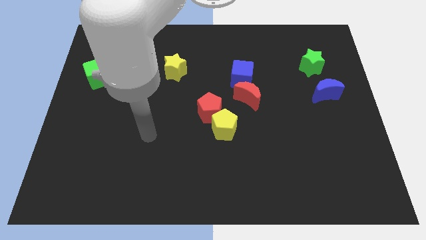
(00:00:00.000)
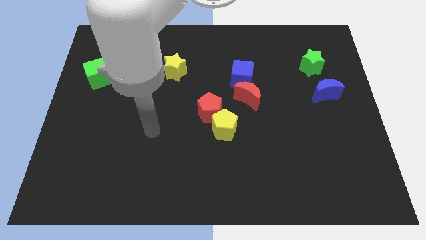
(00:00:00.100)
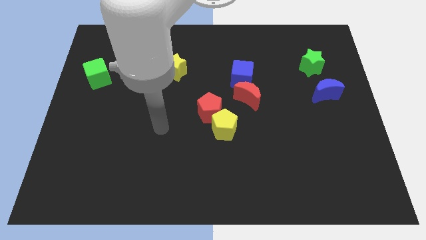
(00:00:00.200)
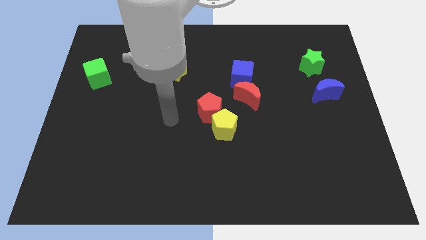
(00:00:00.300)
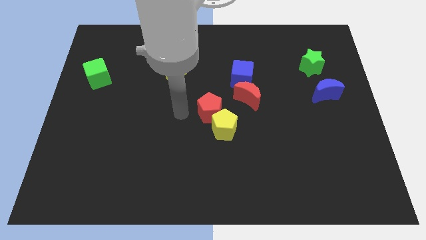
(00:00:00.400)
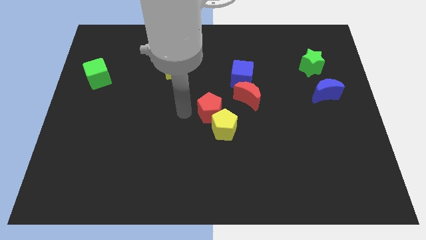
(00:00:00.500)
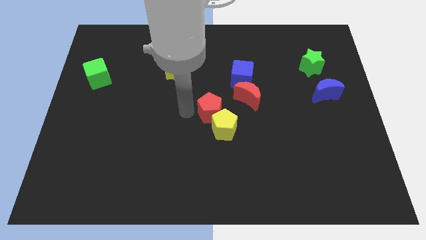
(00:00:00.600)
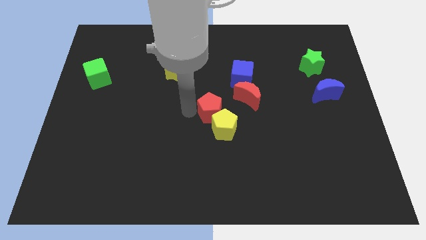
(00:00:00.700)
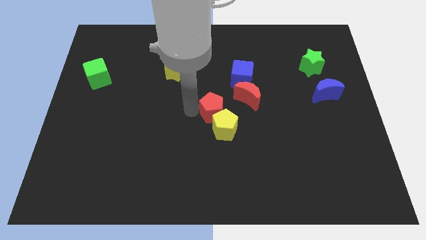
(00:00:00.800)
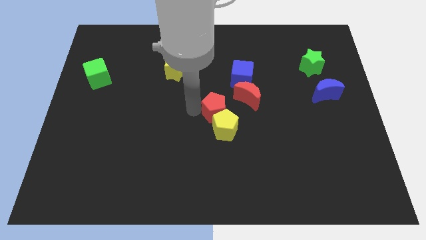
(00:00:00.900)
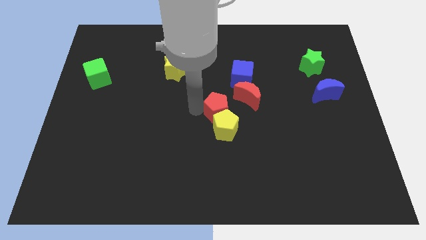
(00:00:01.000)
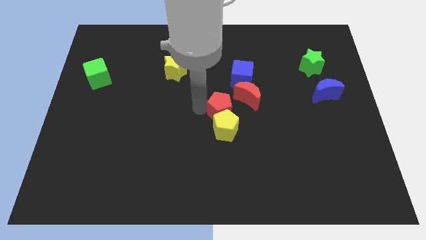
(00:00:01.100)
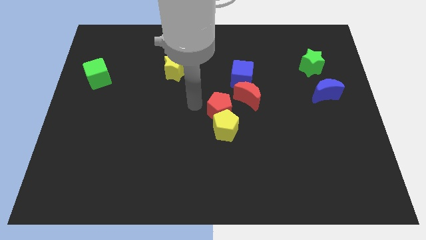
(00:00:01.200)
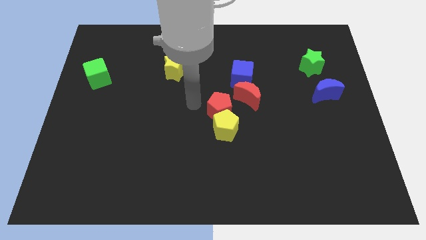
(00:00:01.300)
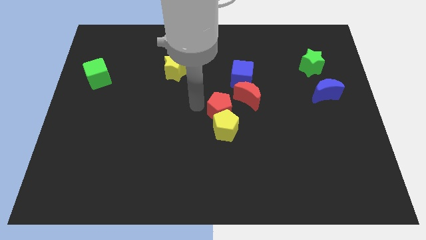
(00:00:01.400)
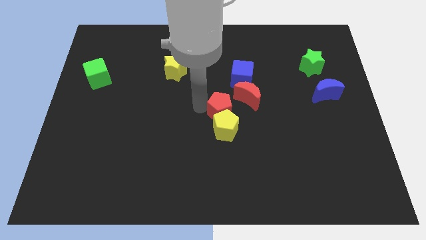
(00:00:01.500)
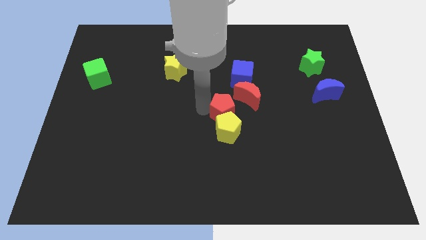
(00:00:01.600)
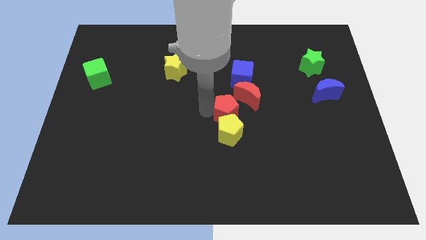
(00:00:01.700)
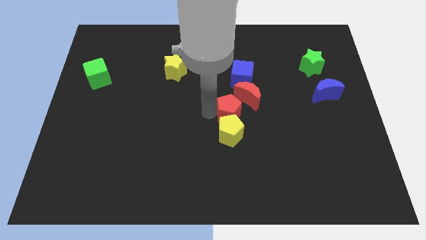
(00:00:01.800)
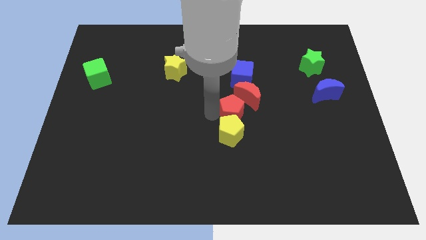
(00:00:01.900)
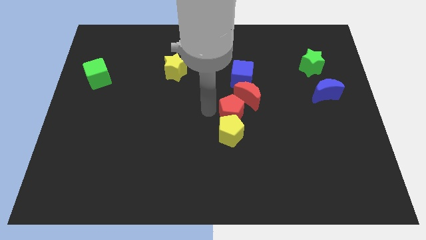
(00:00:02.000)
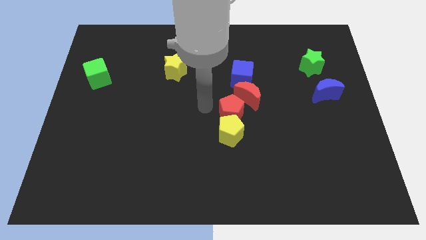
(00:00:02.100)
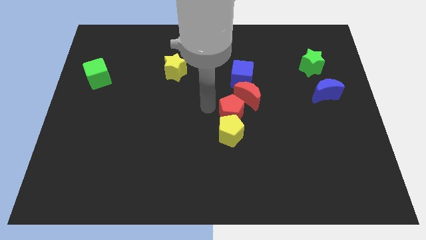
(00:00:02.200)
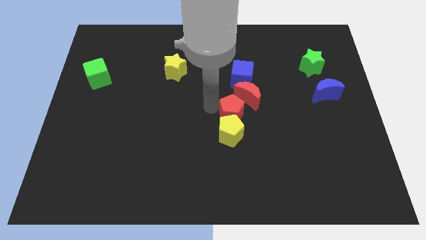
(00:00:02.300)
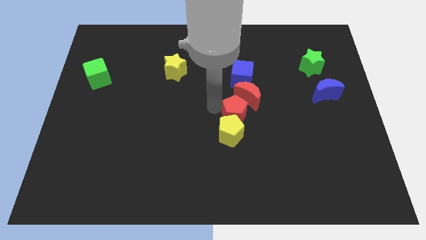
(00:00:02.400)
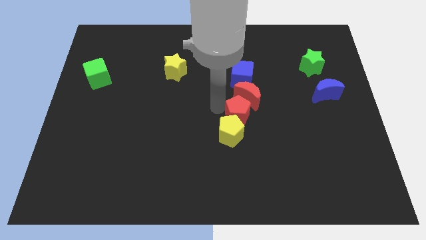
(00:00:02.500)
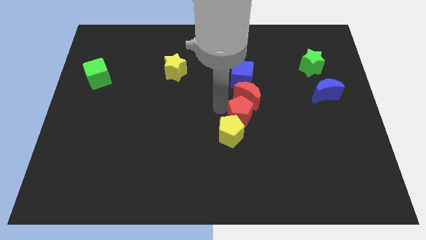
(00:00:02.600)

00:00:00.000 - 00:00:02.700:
slide the red pentagon right slightly

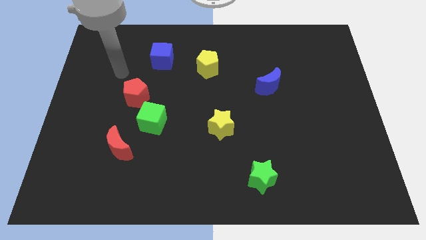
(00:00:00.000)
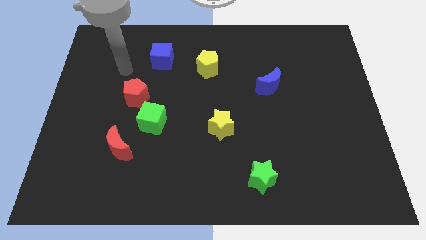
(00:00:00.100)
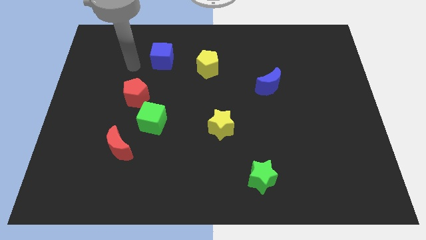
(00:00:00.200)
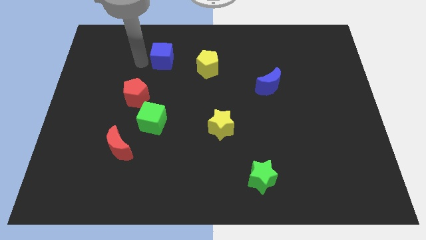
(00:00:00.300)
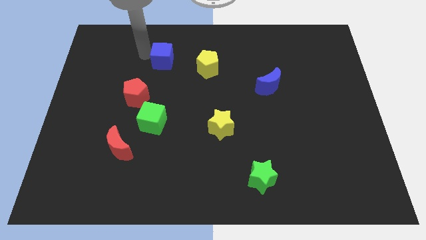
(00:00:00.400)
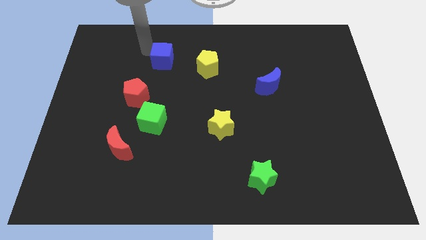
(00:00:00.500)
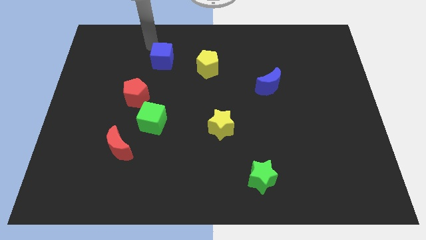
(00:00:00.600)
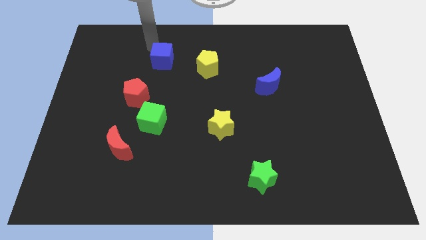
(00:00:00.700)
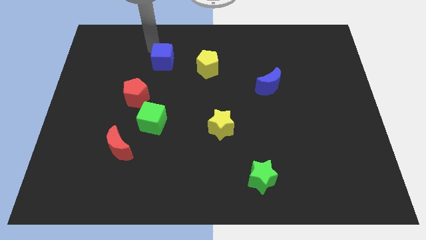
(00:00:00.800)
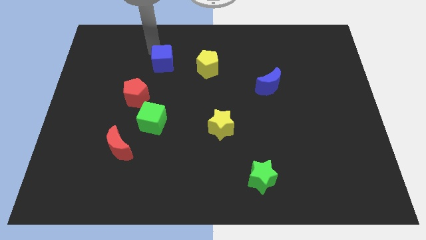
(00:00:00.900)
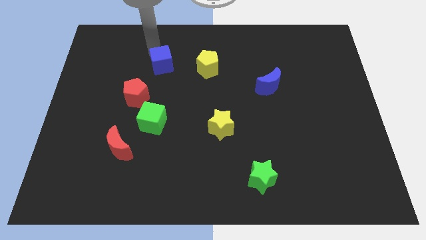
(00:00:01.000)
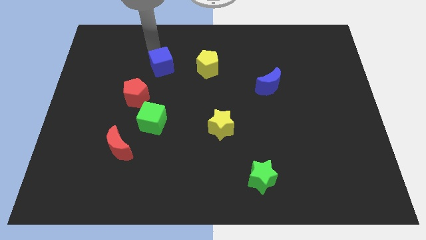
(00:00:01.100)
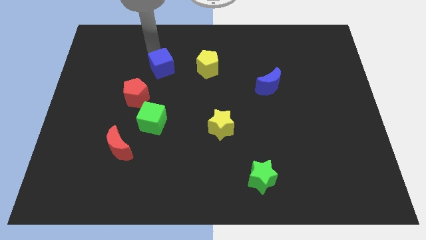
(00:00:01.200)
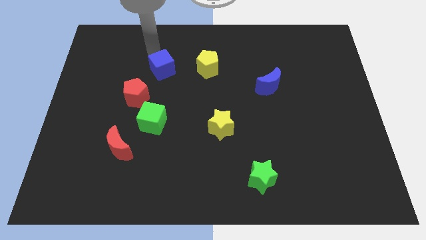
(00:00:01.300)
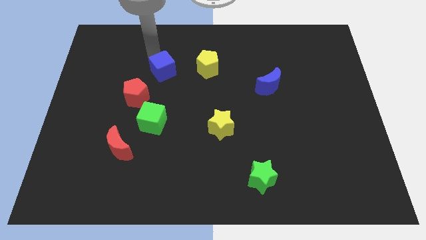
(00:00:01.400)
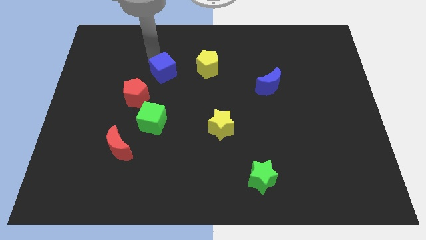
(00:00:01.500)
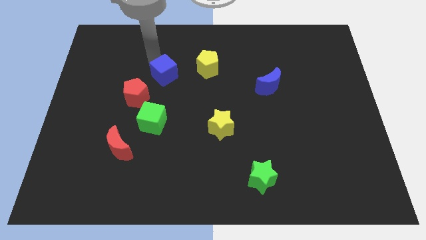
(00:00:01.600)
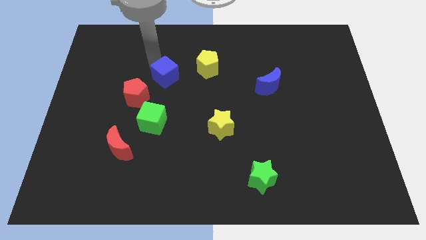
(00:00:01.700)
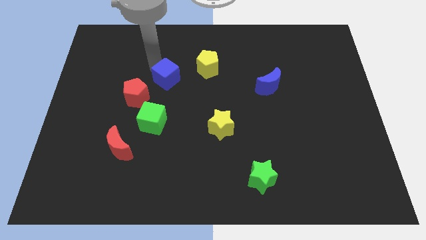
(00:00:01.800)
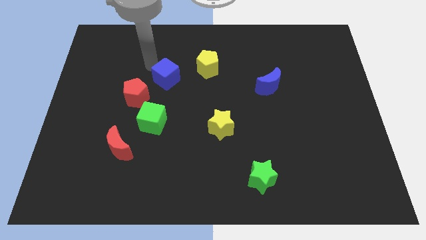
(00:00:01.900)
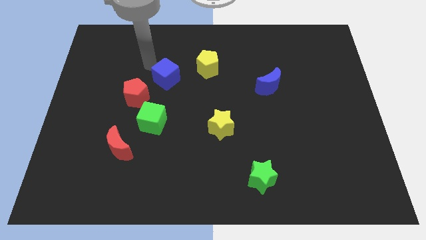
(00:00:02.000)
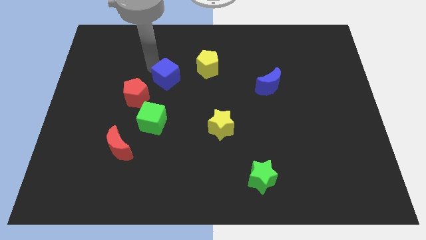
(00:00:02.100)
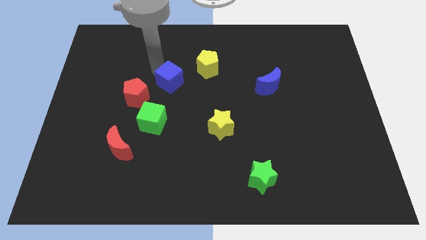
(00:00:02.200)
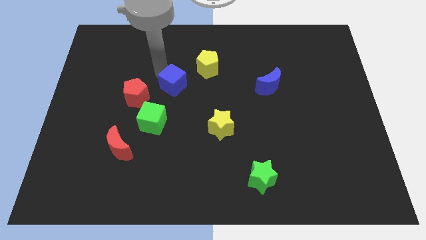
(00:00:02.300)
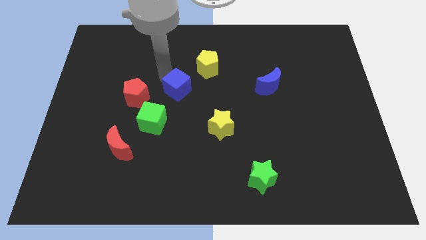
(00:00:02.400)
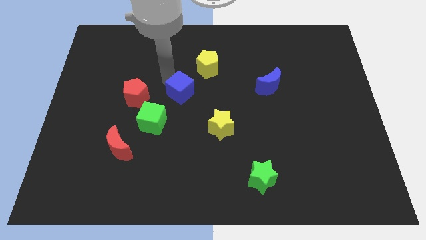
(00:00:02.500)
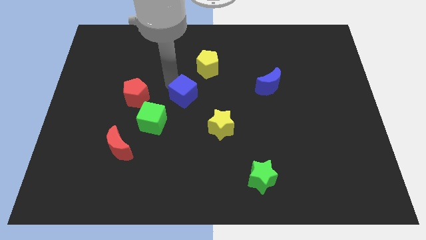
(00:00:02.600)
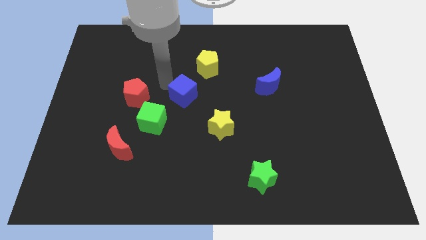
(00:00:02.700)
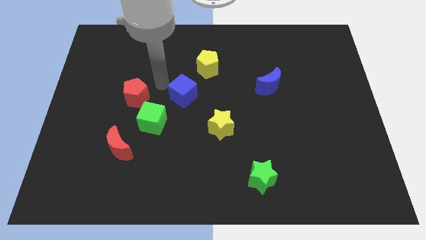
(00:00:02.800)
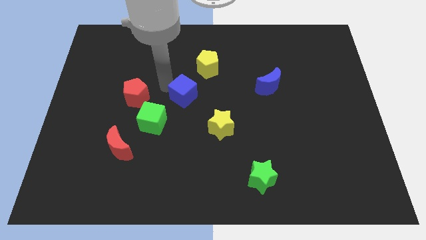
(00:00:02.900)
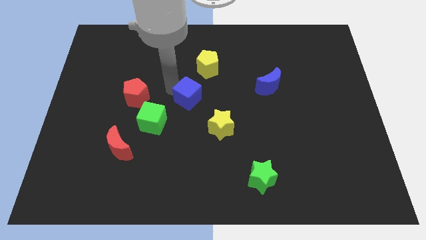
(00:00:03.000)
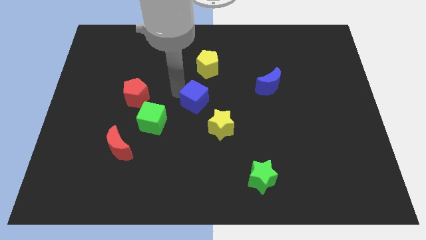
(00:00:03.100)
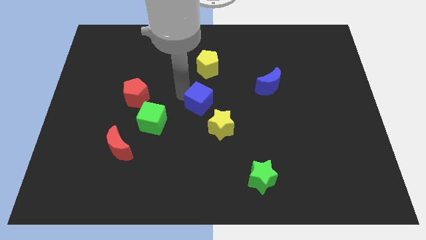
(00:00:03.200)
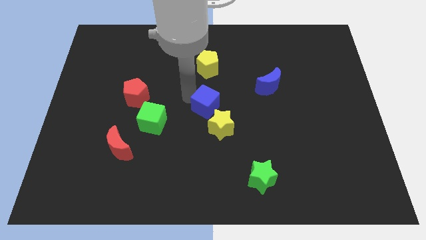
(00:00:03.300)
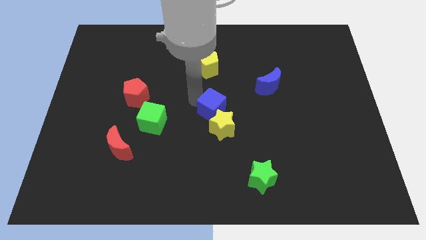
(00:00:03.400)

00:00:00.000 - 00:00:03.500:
slide the blue cube downwards and right diagonally

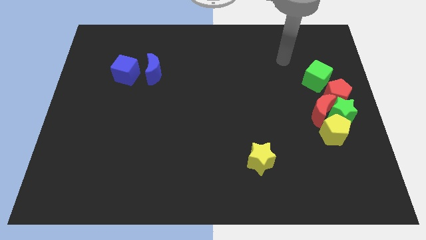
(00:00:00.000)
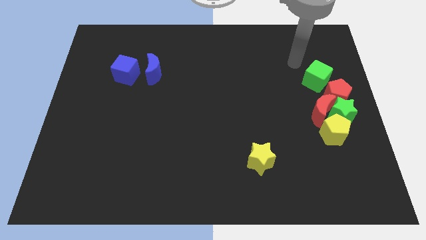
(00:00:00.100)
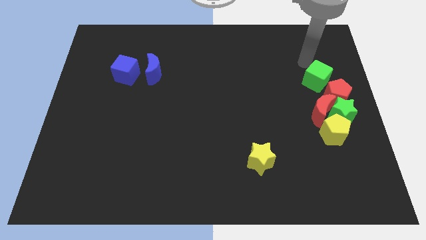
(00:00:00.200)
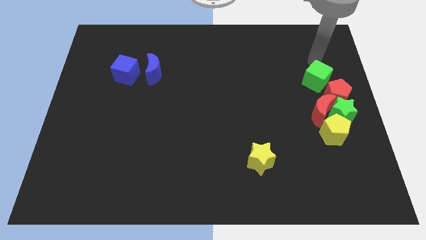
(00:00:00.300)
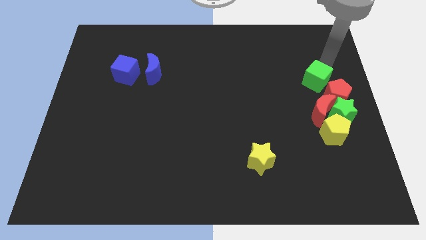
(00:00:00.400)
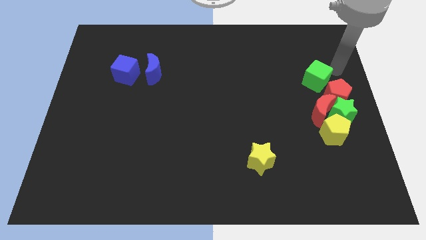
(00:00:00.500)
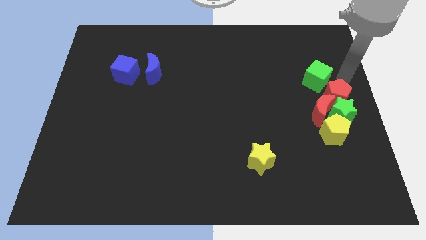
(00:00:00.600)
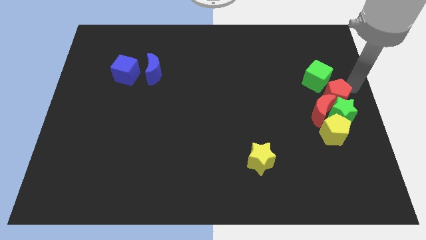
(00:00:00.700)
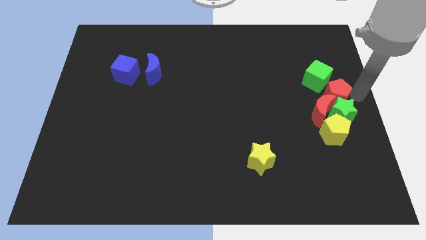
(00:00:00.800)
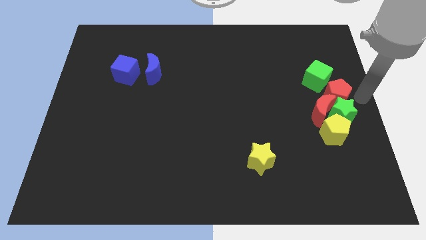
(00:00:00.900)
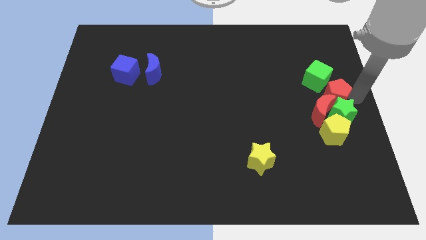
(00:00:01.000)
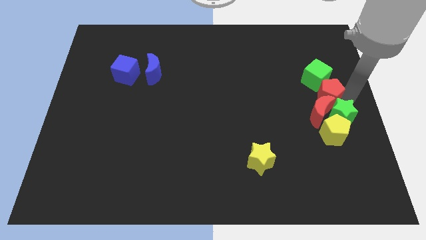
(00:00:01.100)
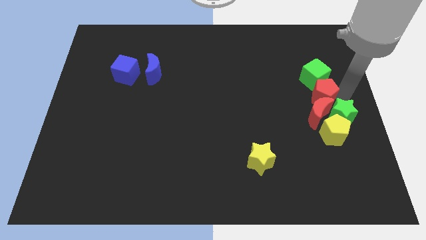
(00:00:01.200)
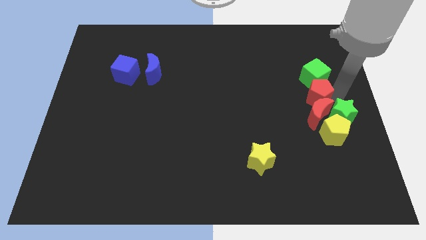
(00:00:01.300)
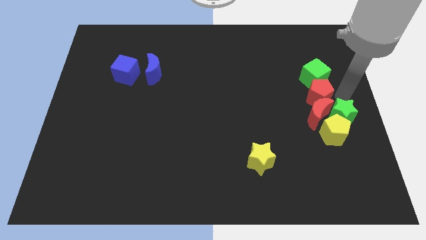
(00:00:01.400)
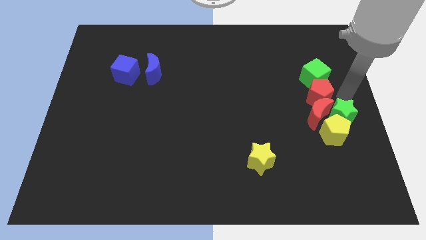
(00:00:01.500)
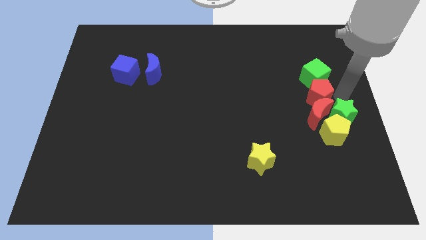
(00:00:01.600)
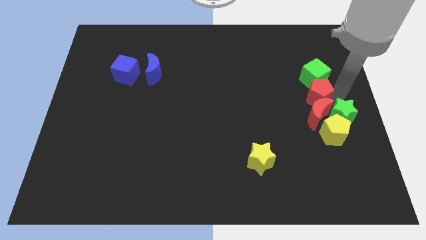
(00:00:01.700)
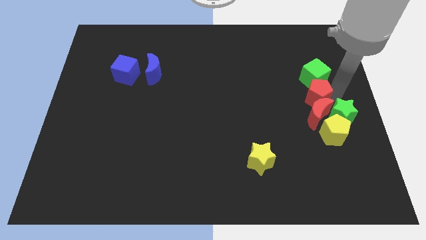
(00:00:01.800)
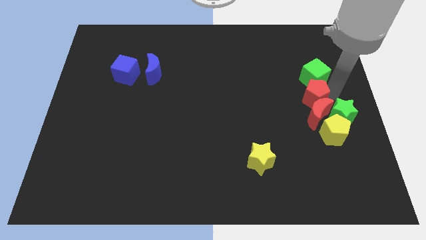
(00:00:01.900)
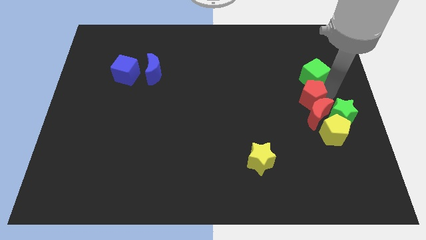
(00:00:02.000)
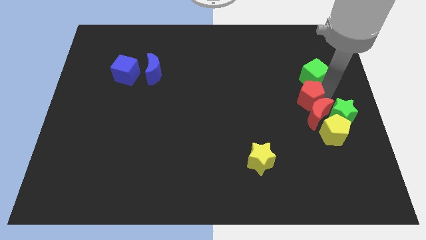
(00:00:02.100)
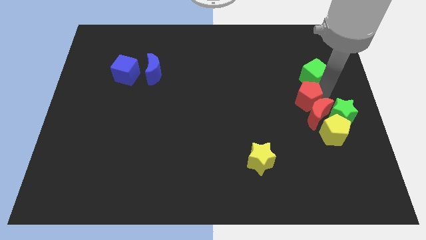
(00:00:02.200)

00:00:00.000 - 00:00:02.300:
slide the red pentagon left a little
